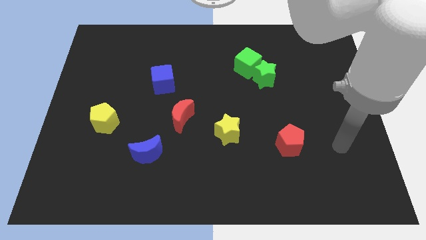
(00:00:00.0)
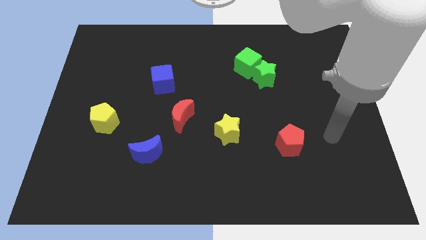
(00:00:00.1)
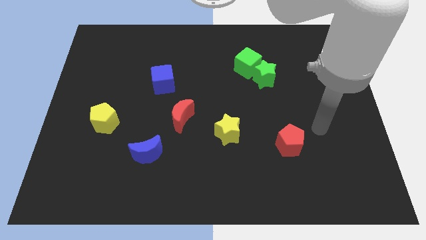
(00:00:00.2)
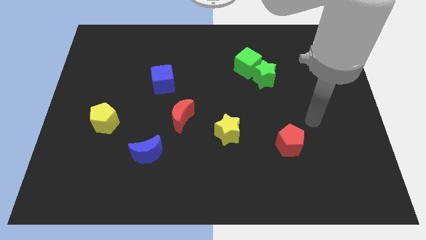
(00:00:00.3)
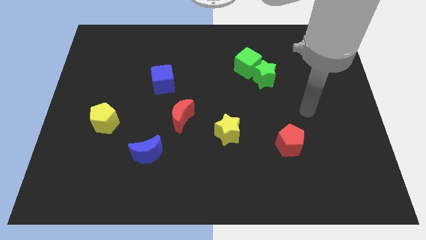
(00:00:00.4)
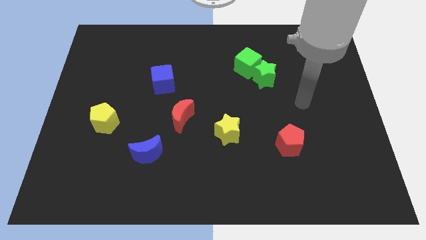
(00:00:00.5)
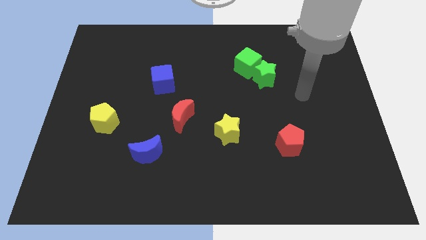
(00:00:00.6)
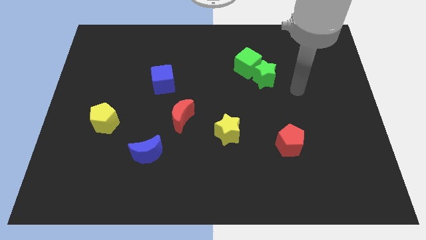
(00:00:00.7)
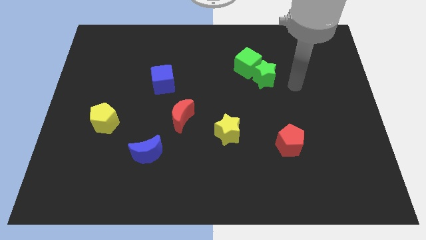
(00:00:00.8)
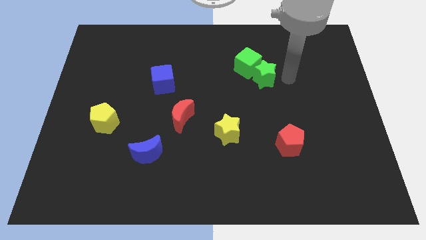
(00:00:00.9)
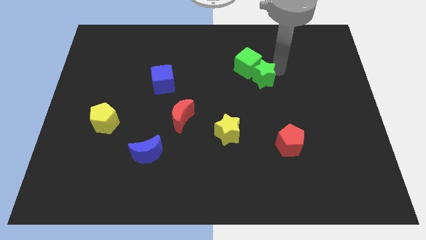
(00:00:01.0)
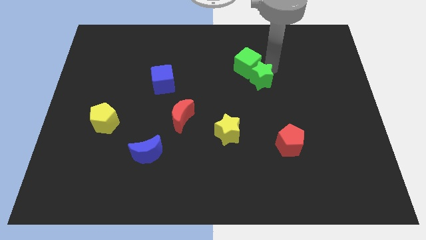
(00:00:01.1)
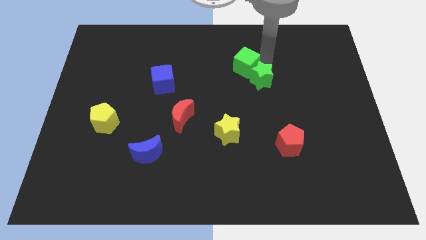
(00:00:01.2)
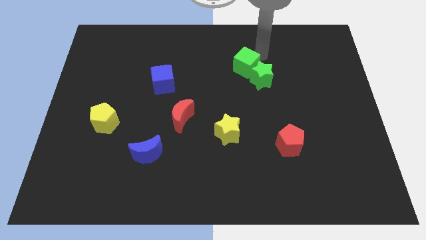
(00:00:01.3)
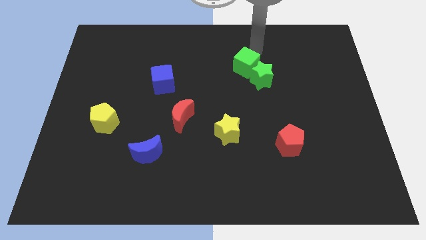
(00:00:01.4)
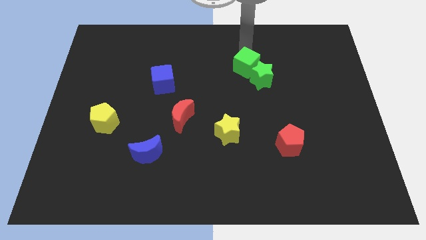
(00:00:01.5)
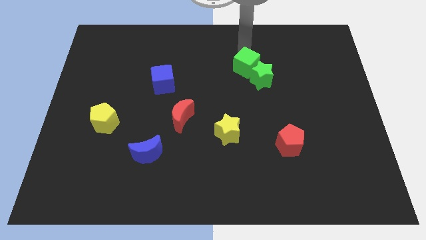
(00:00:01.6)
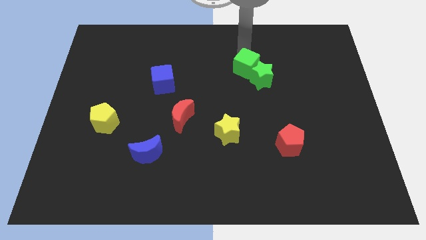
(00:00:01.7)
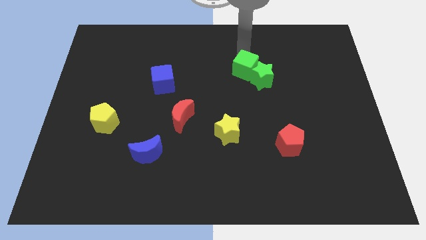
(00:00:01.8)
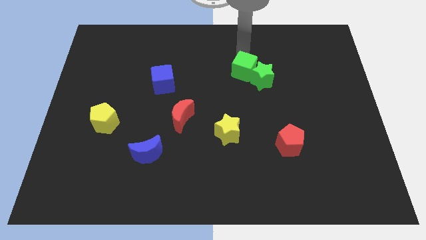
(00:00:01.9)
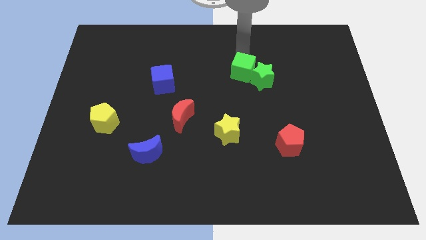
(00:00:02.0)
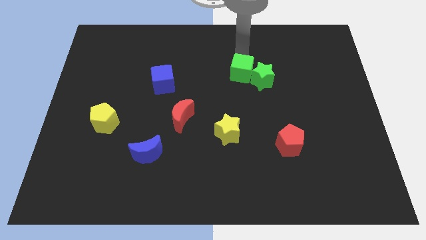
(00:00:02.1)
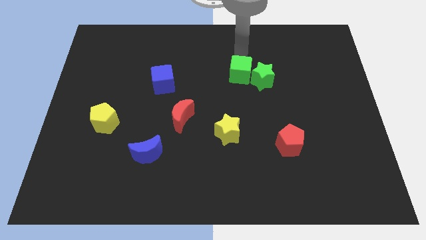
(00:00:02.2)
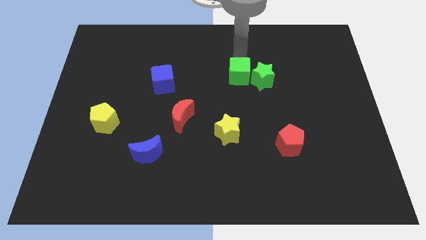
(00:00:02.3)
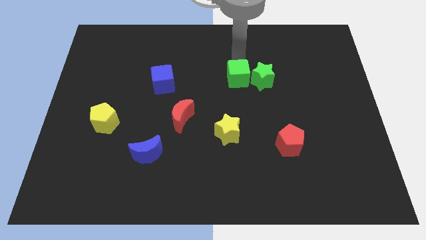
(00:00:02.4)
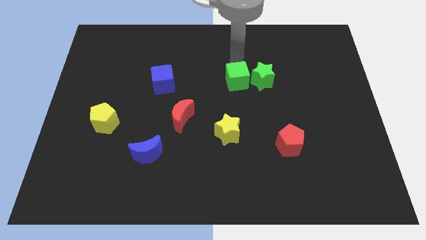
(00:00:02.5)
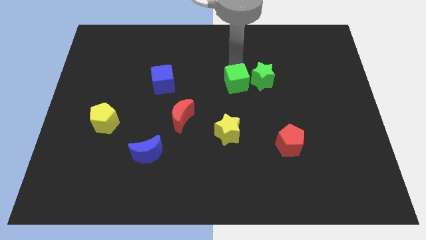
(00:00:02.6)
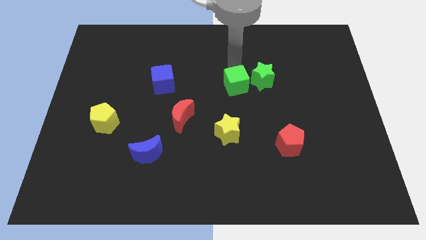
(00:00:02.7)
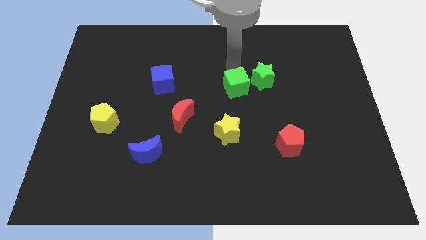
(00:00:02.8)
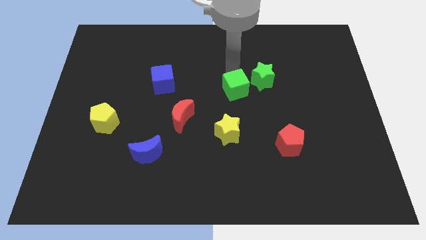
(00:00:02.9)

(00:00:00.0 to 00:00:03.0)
slide the green cube down slightly

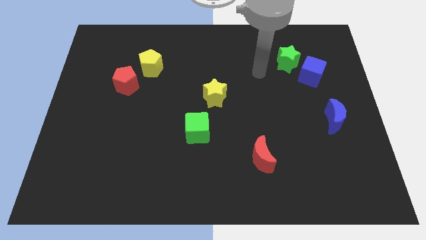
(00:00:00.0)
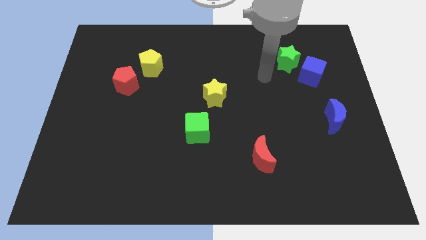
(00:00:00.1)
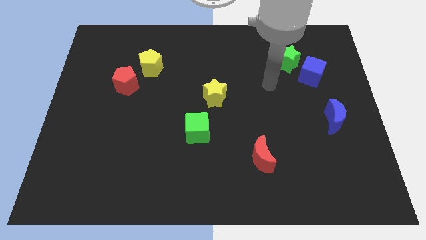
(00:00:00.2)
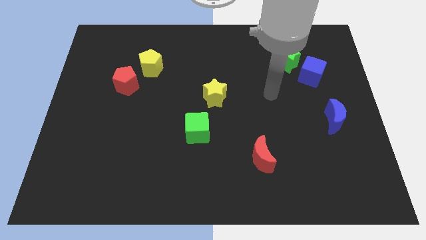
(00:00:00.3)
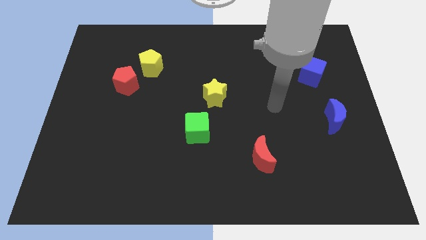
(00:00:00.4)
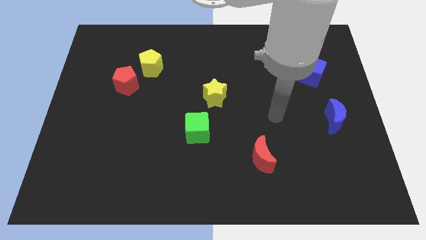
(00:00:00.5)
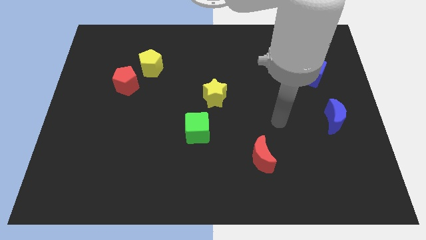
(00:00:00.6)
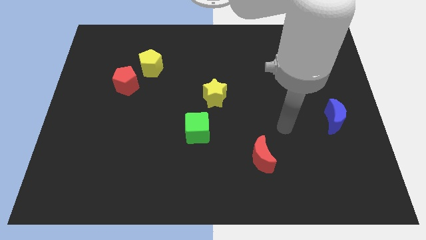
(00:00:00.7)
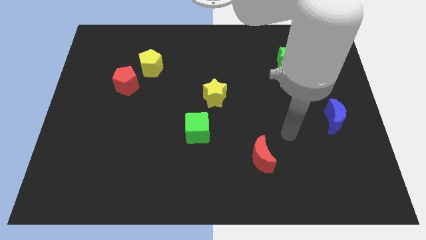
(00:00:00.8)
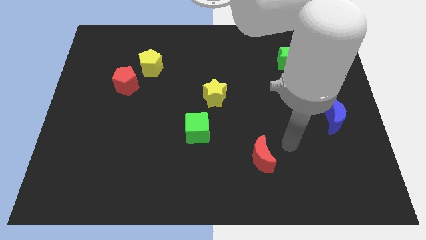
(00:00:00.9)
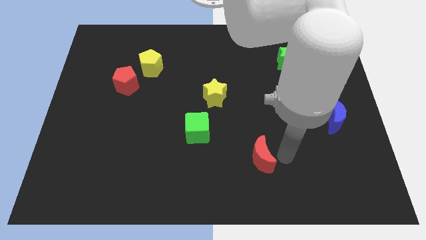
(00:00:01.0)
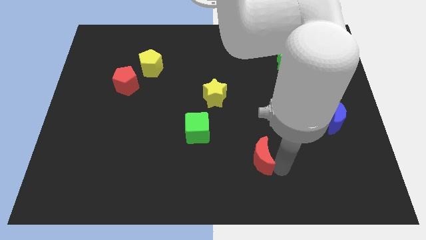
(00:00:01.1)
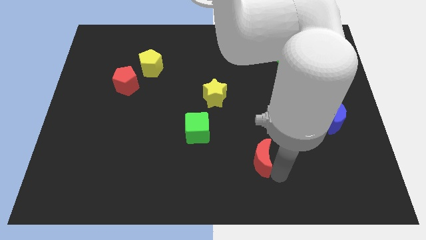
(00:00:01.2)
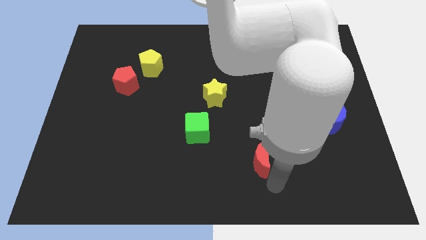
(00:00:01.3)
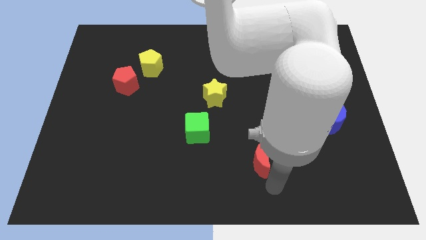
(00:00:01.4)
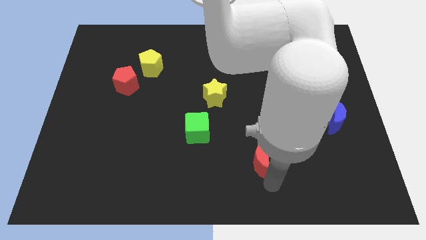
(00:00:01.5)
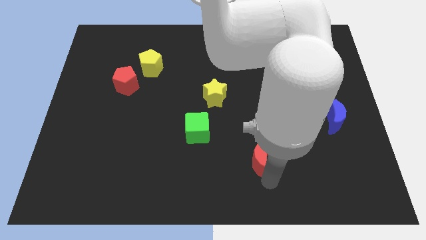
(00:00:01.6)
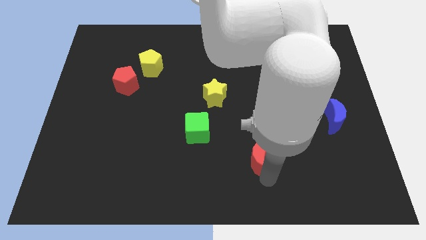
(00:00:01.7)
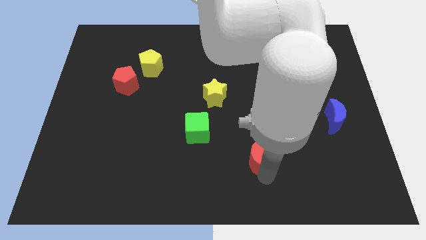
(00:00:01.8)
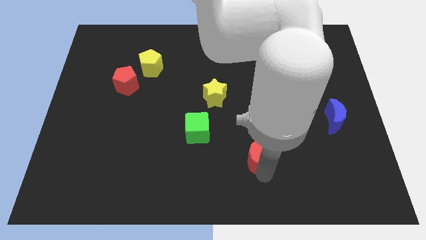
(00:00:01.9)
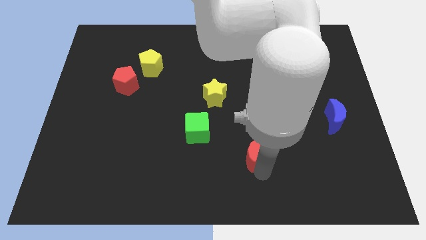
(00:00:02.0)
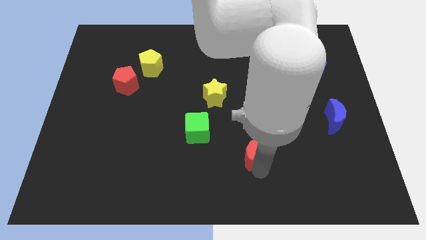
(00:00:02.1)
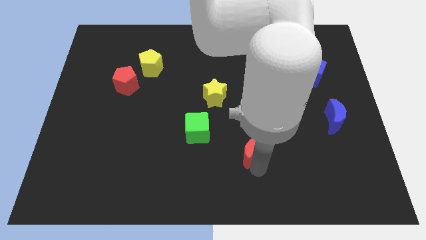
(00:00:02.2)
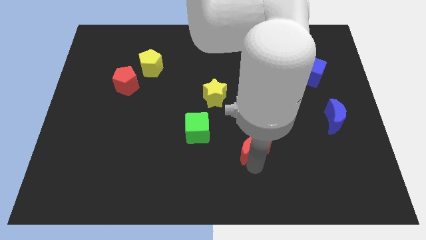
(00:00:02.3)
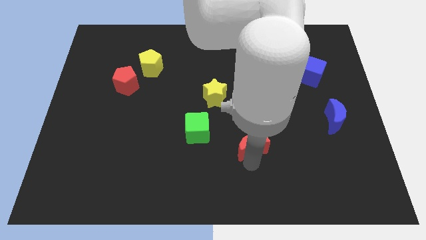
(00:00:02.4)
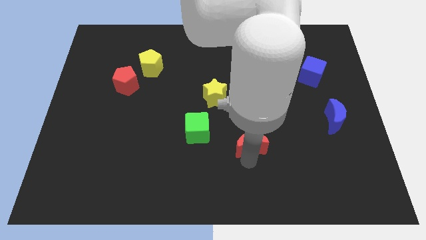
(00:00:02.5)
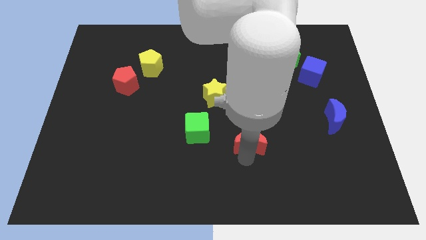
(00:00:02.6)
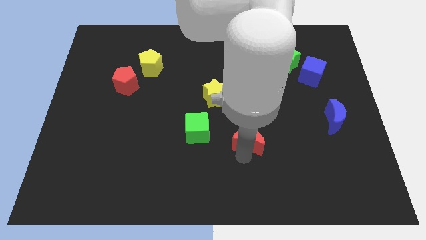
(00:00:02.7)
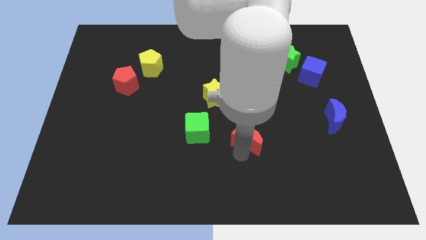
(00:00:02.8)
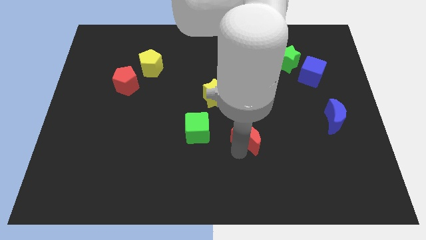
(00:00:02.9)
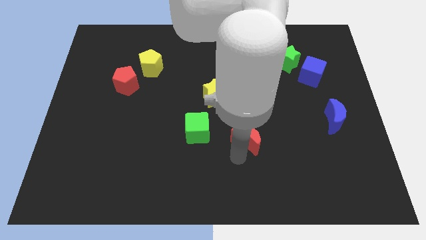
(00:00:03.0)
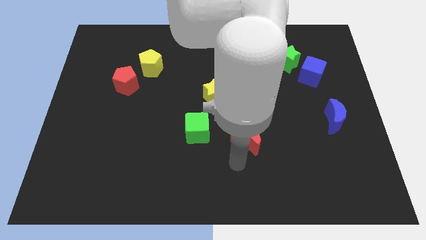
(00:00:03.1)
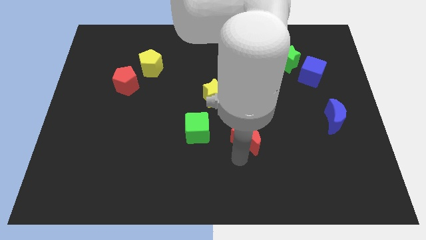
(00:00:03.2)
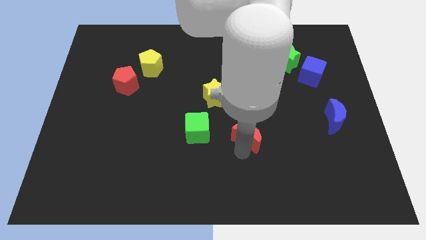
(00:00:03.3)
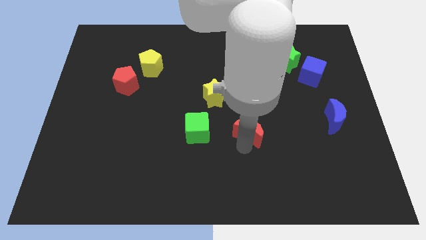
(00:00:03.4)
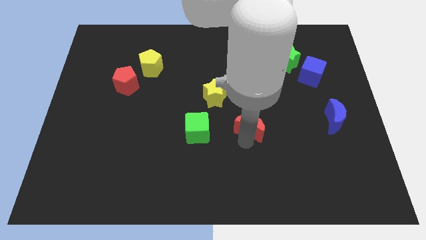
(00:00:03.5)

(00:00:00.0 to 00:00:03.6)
slide the red moon upwards a little

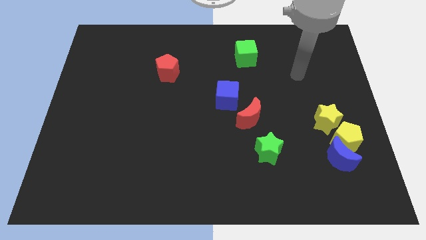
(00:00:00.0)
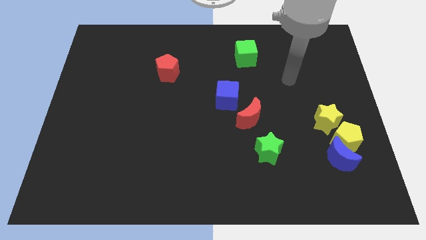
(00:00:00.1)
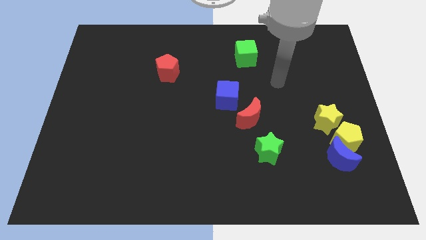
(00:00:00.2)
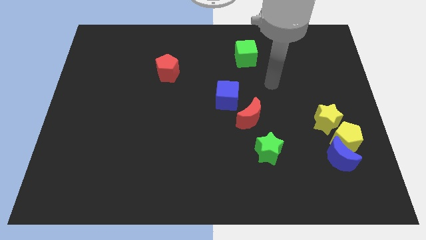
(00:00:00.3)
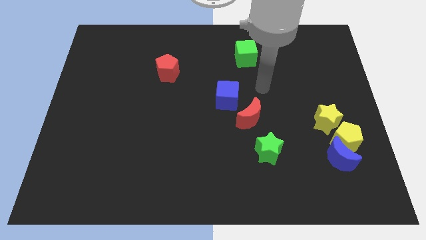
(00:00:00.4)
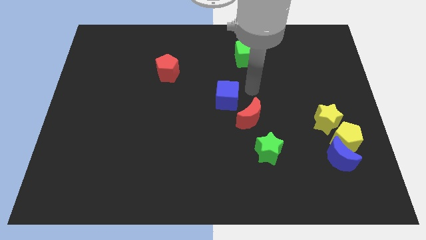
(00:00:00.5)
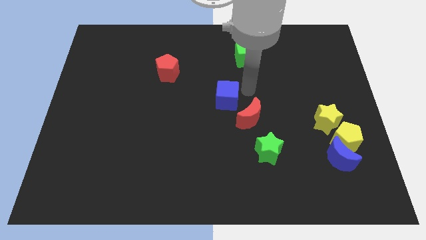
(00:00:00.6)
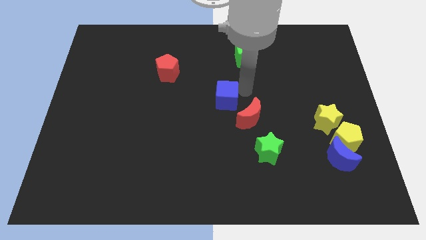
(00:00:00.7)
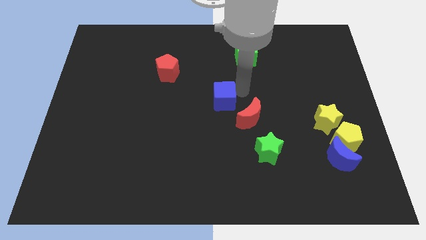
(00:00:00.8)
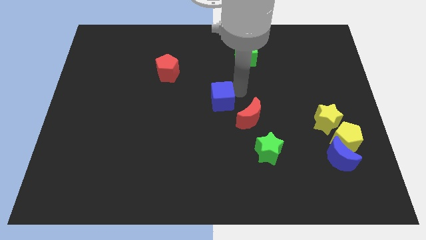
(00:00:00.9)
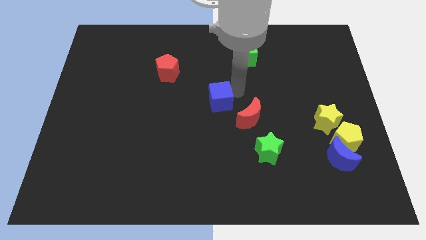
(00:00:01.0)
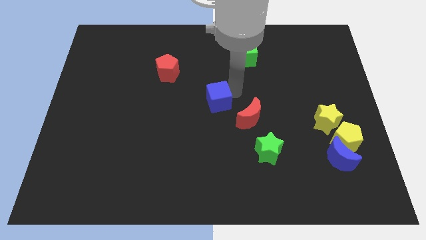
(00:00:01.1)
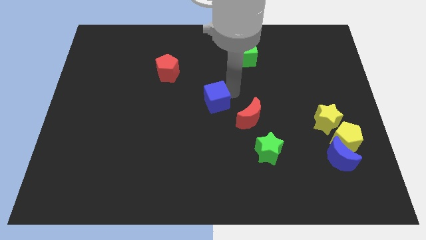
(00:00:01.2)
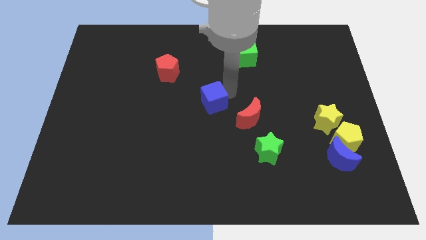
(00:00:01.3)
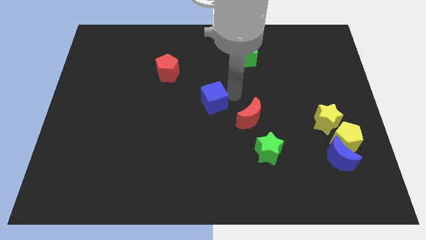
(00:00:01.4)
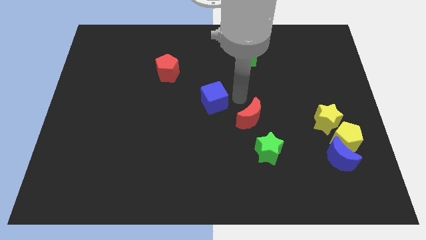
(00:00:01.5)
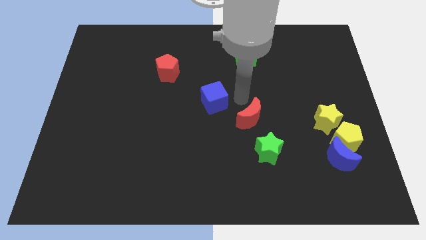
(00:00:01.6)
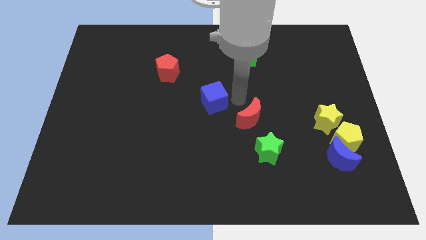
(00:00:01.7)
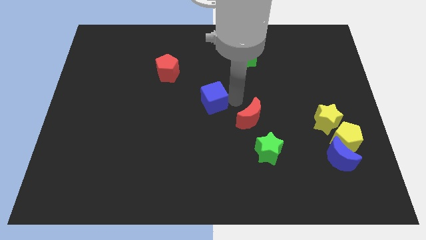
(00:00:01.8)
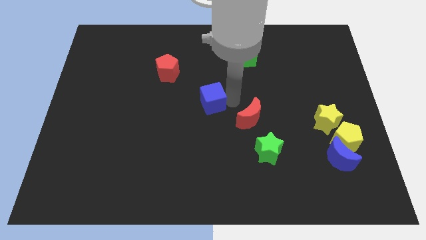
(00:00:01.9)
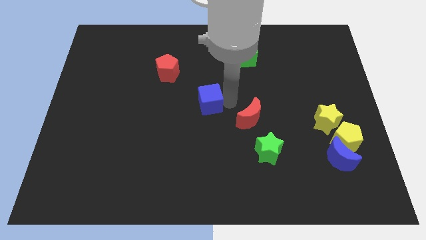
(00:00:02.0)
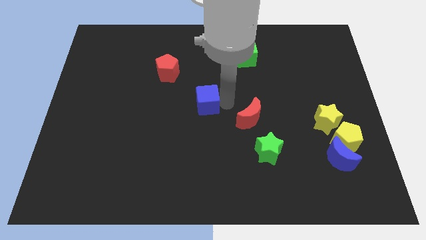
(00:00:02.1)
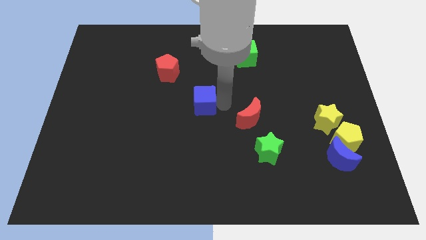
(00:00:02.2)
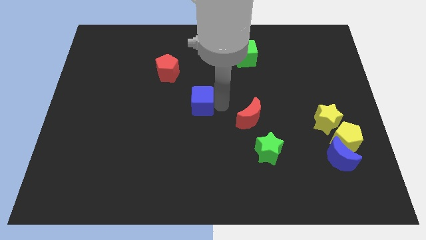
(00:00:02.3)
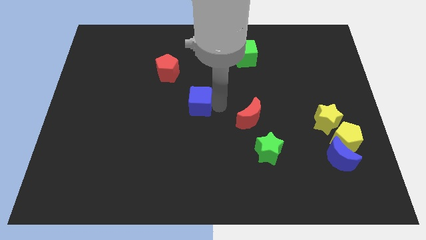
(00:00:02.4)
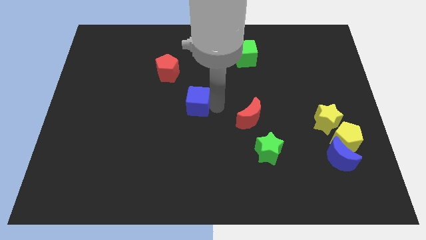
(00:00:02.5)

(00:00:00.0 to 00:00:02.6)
push the blue cube slightly left
